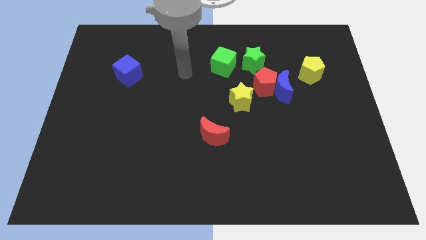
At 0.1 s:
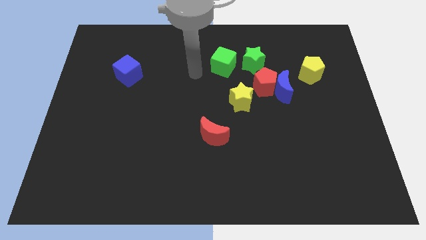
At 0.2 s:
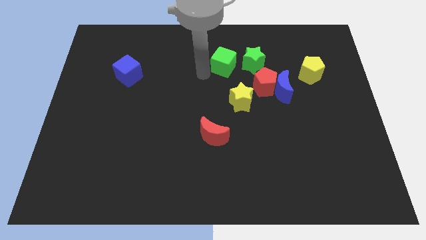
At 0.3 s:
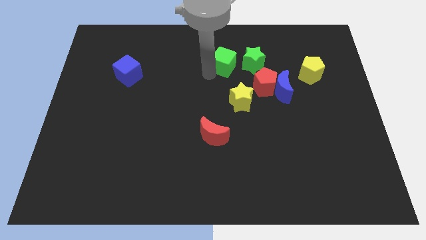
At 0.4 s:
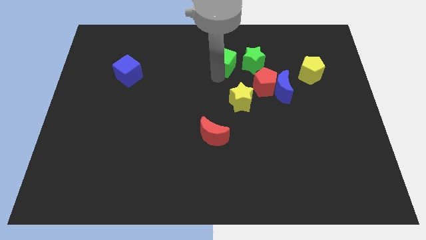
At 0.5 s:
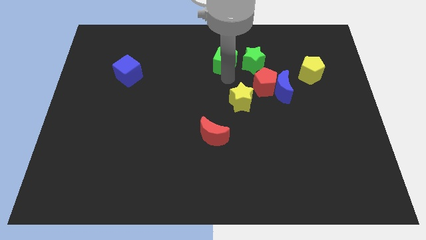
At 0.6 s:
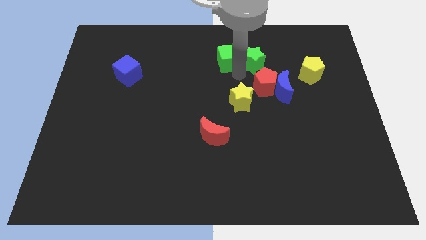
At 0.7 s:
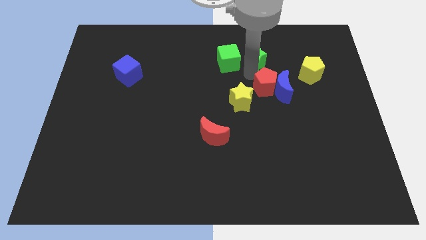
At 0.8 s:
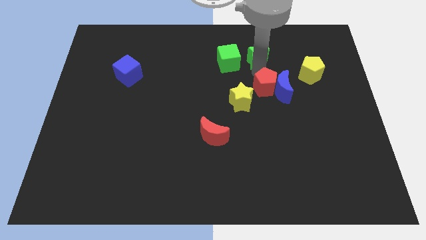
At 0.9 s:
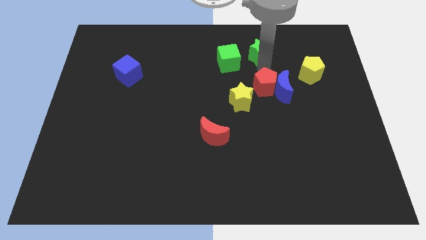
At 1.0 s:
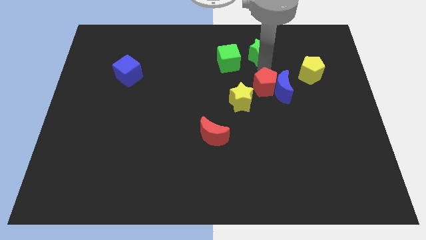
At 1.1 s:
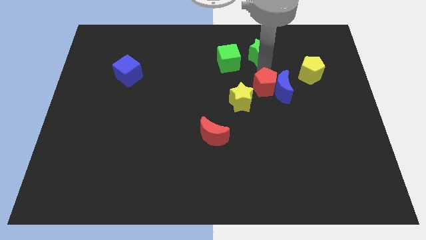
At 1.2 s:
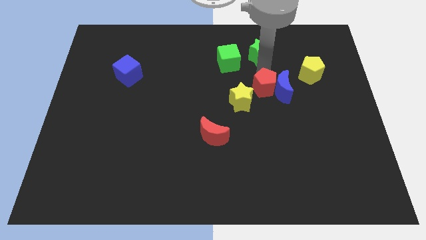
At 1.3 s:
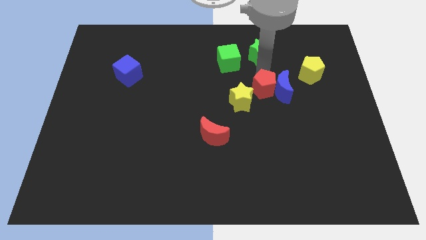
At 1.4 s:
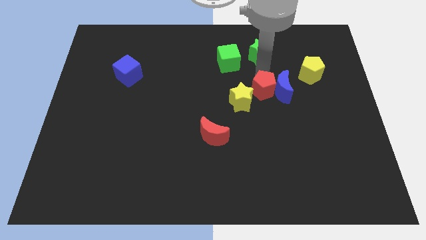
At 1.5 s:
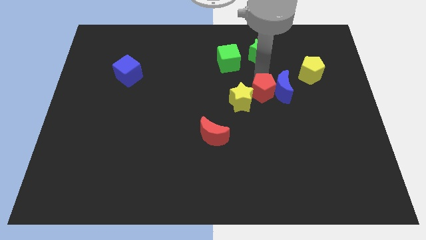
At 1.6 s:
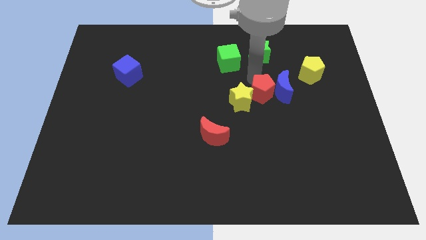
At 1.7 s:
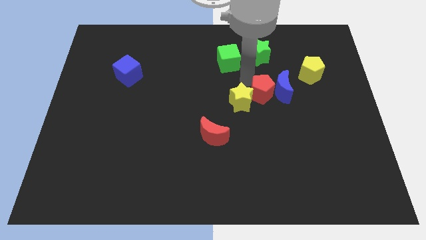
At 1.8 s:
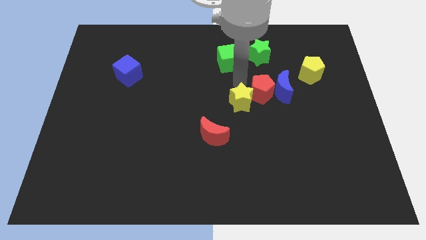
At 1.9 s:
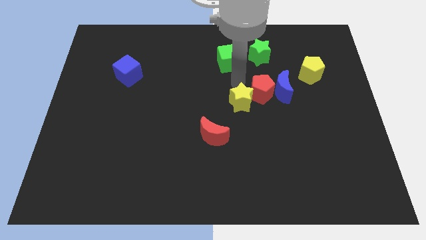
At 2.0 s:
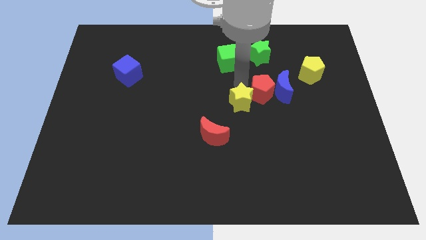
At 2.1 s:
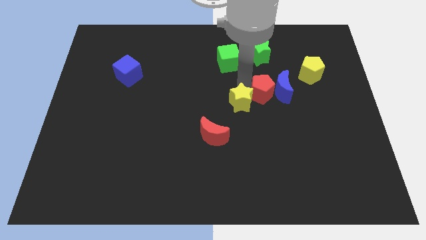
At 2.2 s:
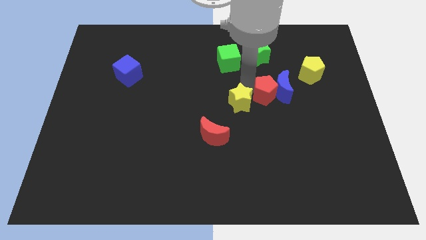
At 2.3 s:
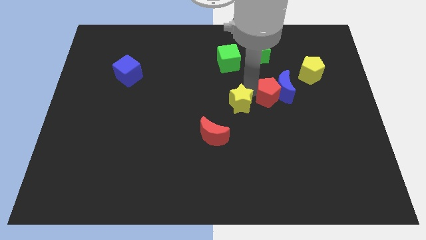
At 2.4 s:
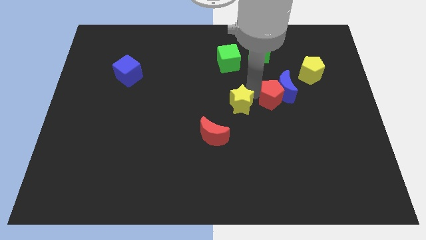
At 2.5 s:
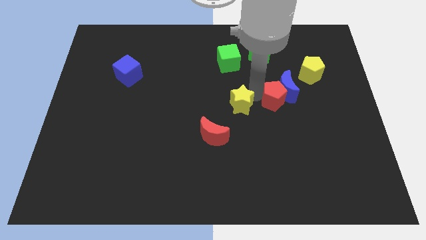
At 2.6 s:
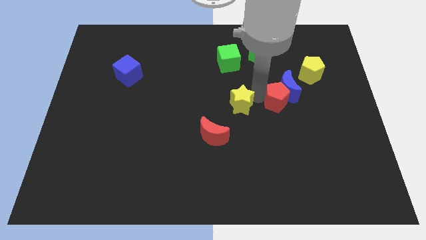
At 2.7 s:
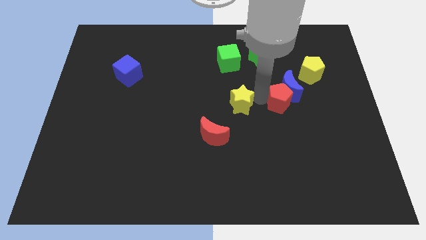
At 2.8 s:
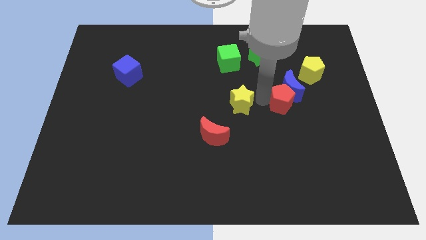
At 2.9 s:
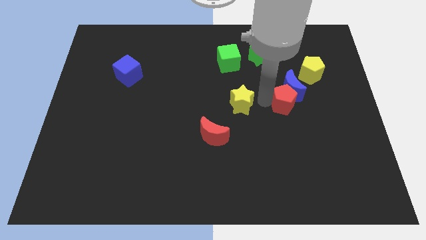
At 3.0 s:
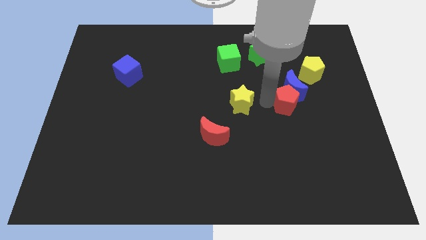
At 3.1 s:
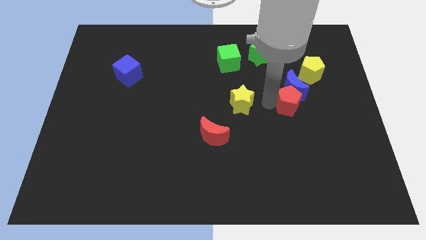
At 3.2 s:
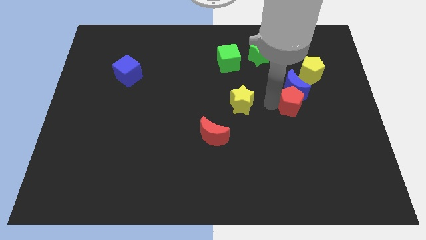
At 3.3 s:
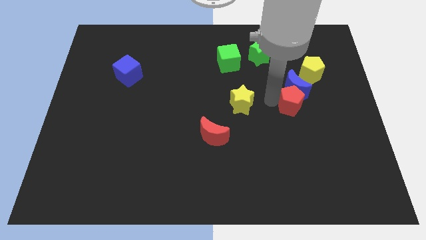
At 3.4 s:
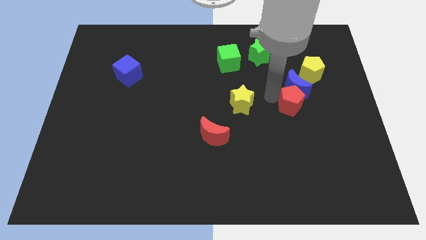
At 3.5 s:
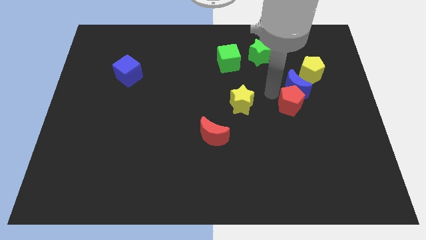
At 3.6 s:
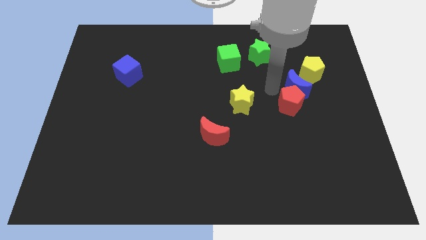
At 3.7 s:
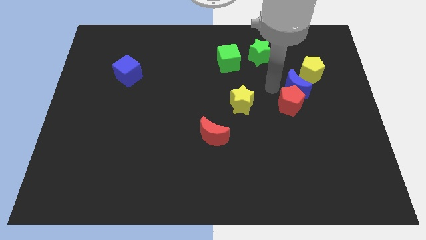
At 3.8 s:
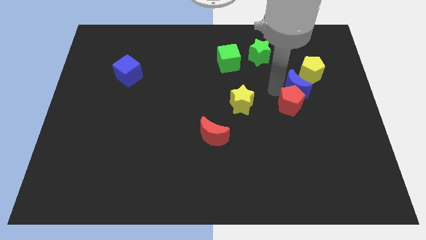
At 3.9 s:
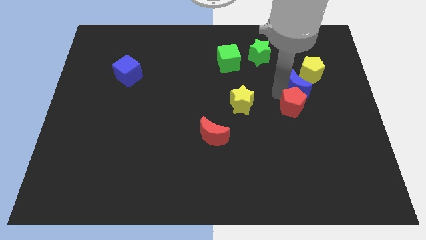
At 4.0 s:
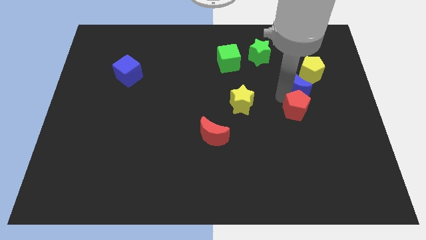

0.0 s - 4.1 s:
separate the red pentagon from the group of blocks

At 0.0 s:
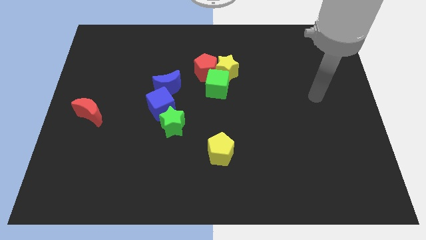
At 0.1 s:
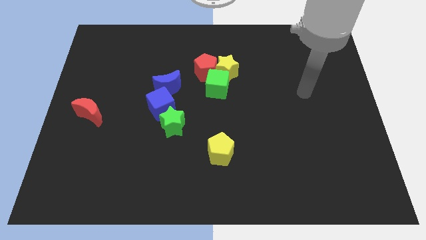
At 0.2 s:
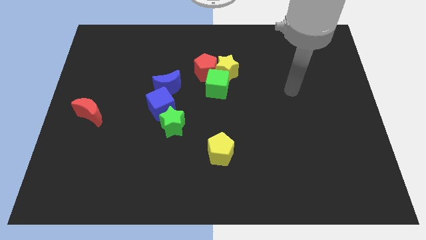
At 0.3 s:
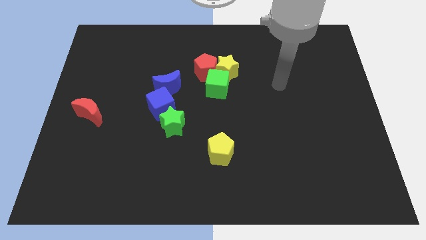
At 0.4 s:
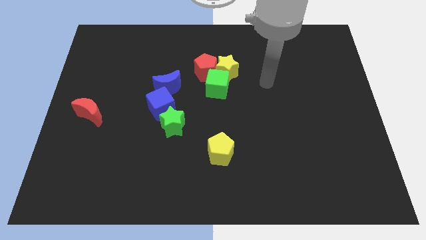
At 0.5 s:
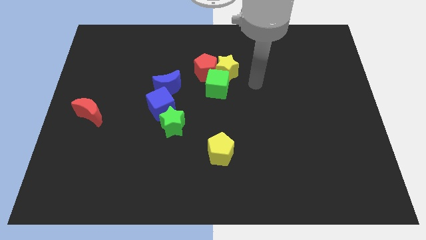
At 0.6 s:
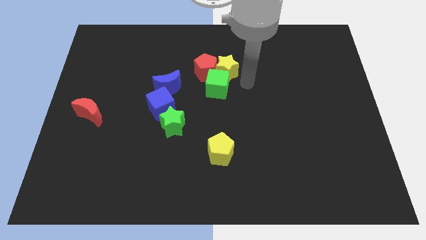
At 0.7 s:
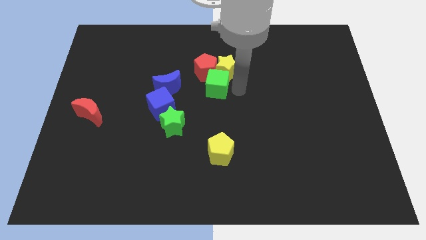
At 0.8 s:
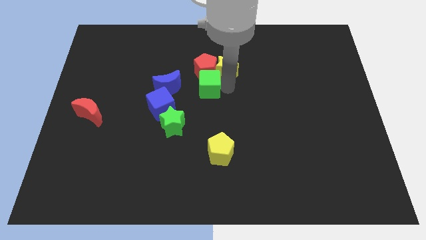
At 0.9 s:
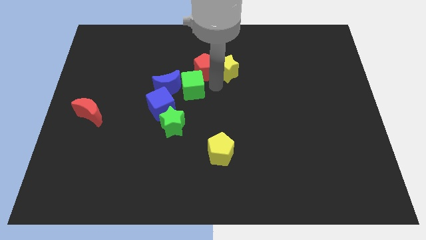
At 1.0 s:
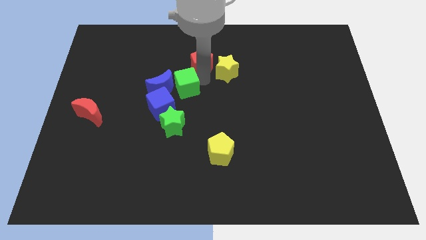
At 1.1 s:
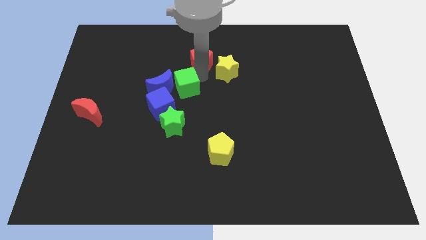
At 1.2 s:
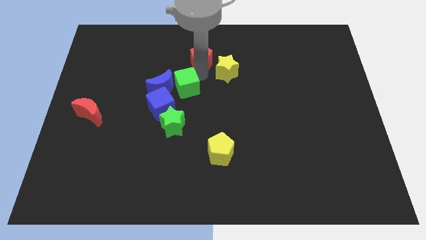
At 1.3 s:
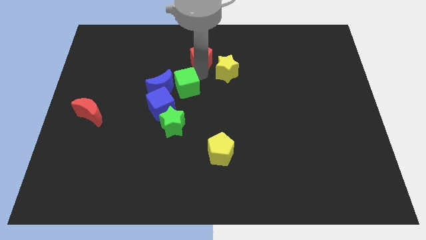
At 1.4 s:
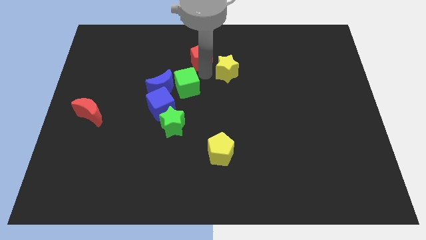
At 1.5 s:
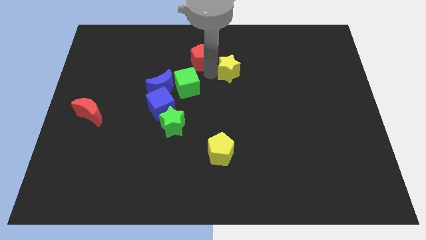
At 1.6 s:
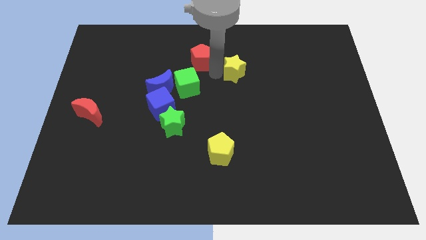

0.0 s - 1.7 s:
pull the yellow star apart from the red pentagon and green cube

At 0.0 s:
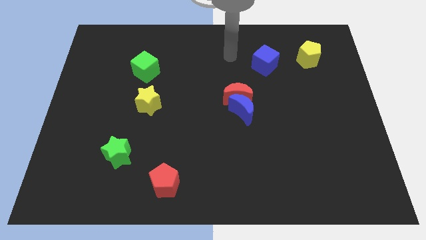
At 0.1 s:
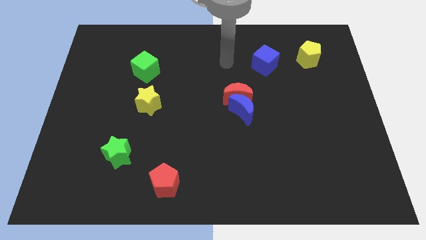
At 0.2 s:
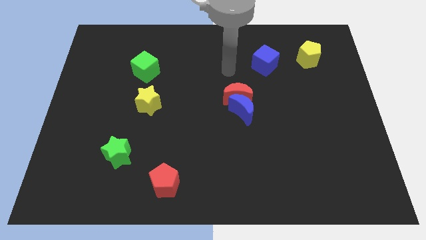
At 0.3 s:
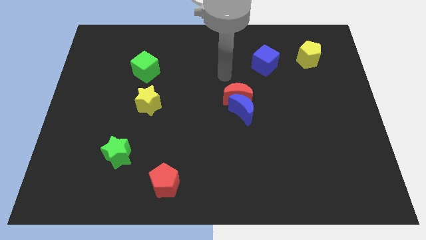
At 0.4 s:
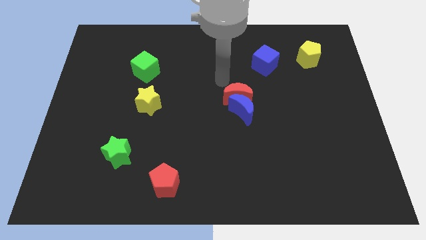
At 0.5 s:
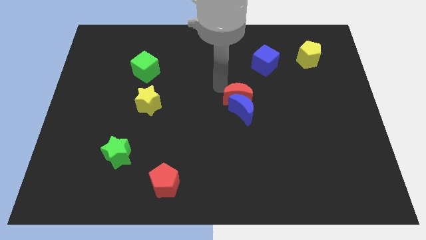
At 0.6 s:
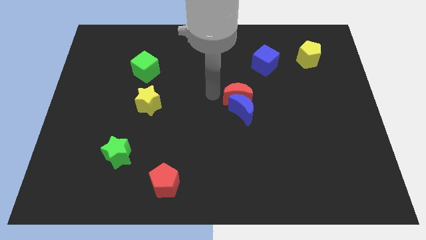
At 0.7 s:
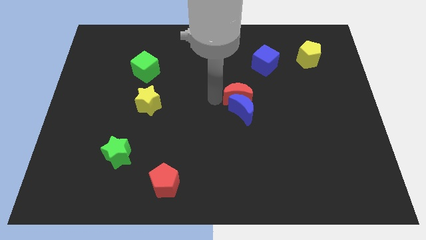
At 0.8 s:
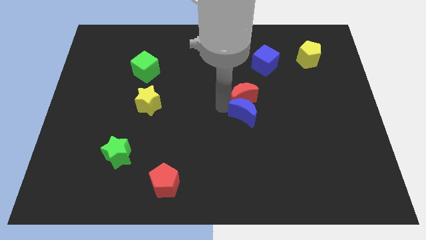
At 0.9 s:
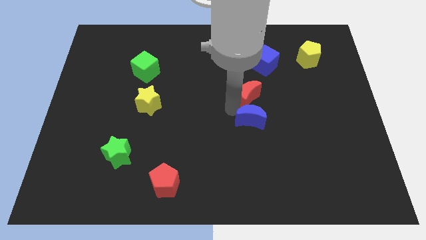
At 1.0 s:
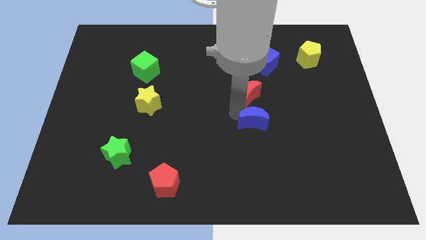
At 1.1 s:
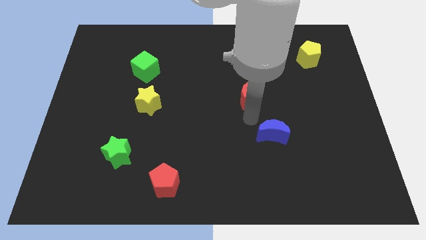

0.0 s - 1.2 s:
pull the red moon apart from the blue moon

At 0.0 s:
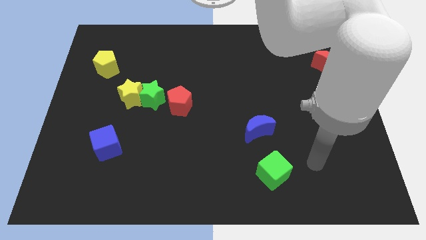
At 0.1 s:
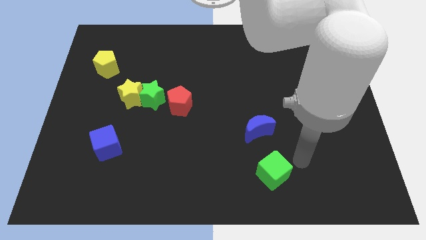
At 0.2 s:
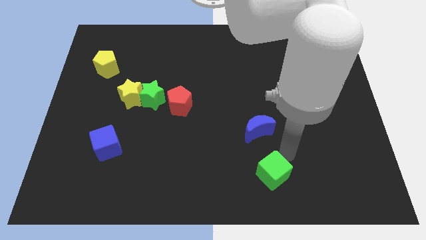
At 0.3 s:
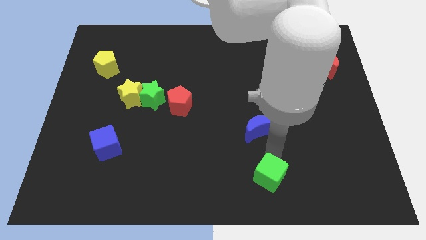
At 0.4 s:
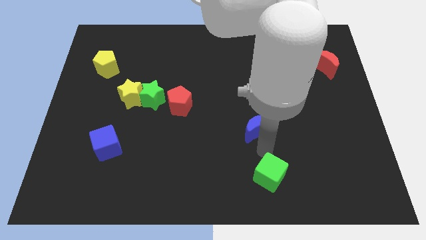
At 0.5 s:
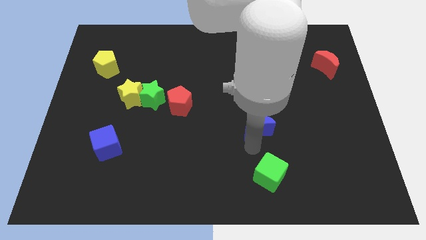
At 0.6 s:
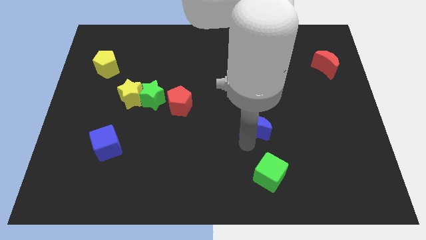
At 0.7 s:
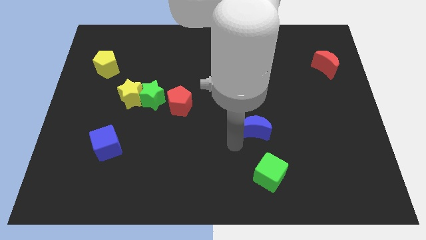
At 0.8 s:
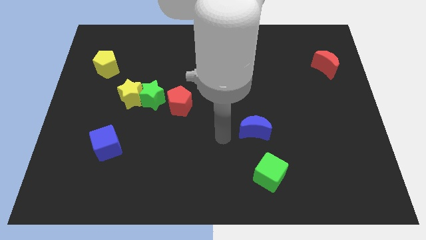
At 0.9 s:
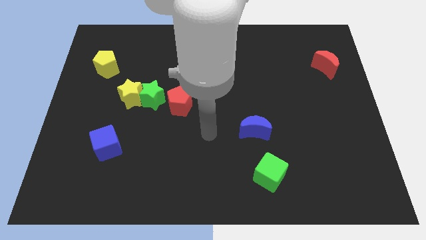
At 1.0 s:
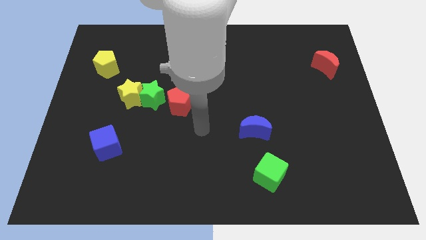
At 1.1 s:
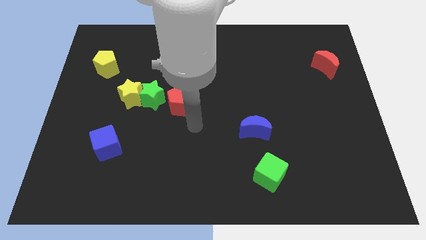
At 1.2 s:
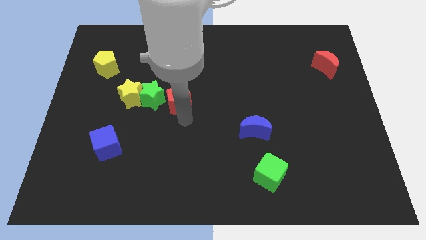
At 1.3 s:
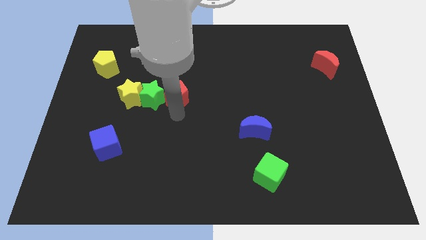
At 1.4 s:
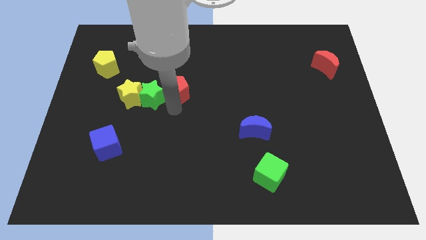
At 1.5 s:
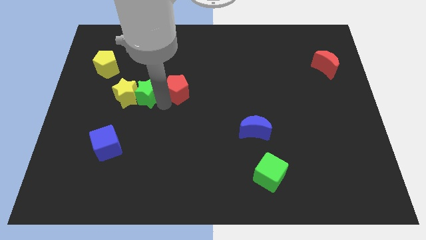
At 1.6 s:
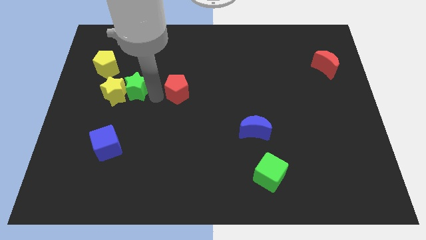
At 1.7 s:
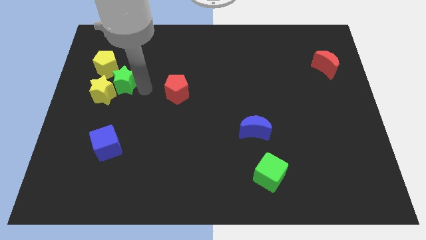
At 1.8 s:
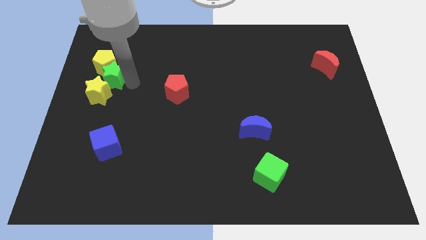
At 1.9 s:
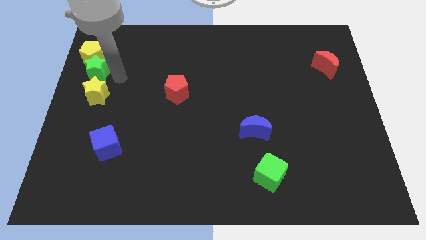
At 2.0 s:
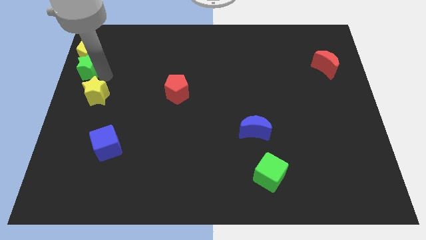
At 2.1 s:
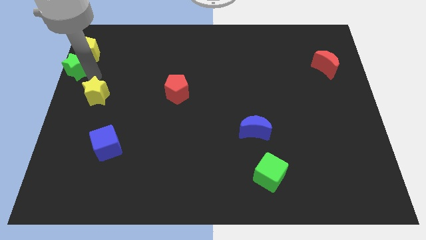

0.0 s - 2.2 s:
pull the yellow star apart from the green star
